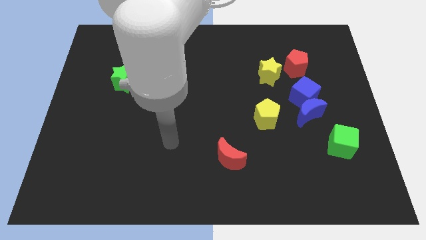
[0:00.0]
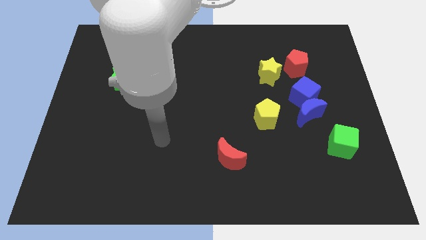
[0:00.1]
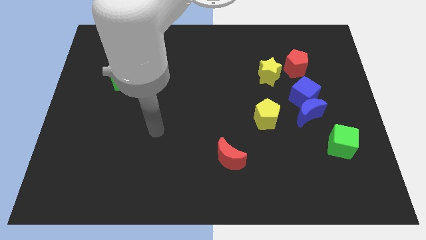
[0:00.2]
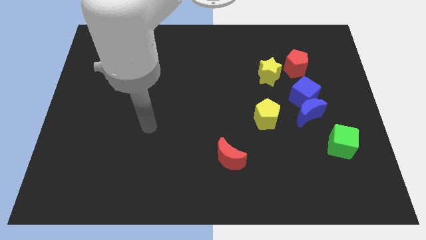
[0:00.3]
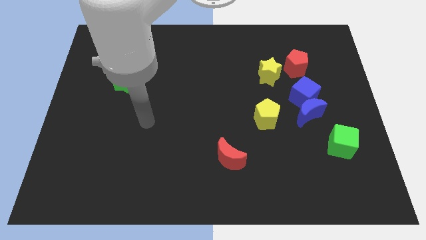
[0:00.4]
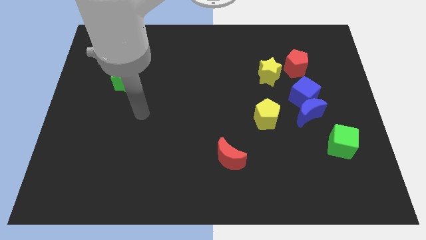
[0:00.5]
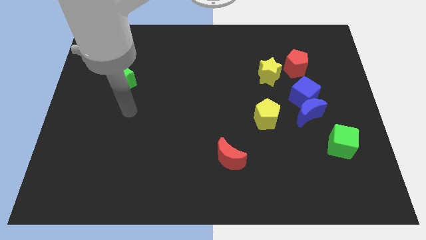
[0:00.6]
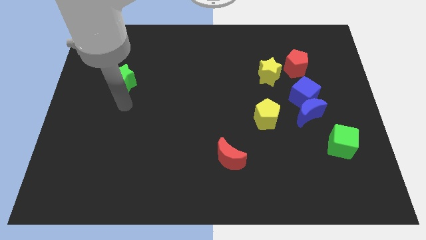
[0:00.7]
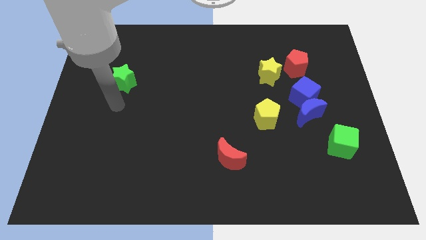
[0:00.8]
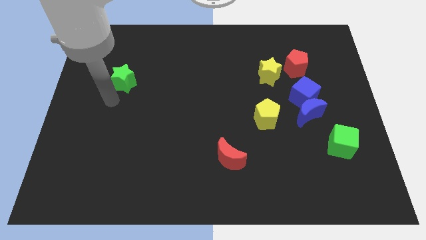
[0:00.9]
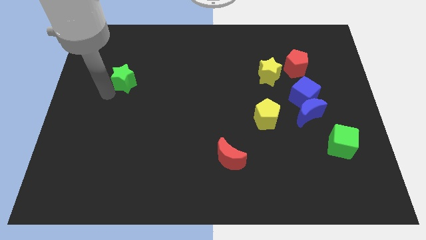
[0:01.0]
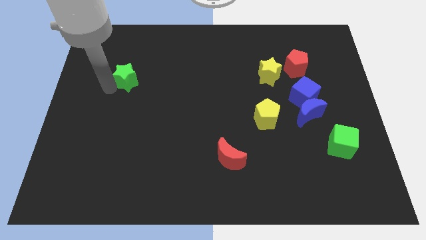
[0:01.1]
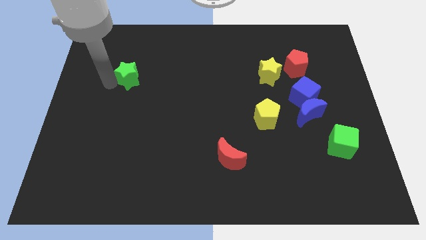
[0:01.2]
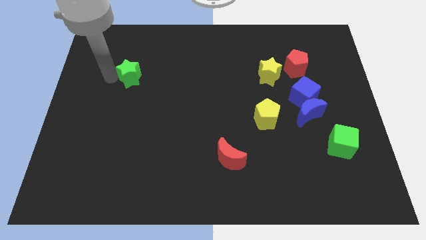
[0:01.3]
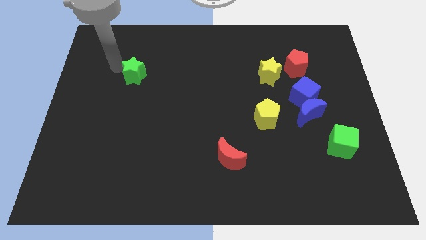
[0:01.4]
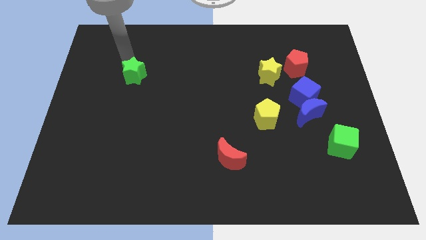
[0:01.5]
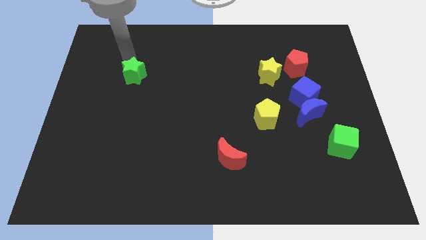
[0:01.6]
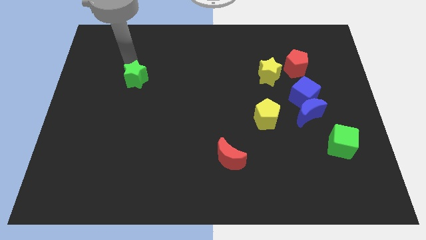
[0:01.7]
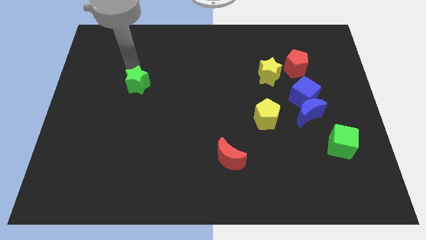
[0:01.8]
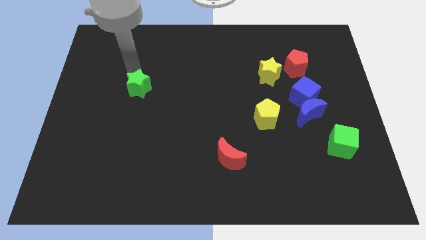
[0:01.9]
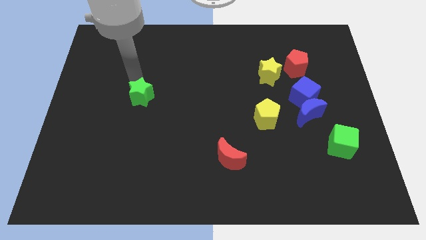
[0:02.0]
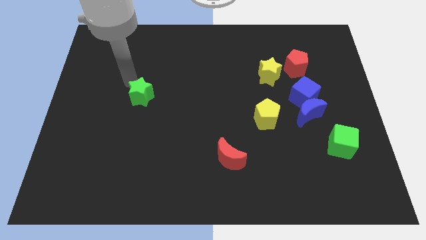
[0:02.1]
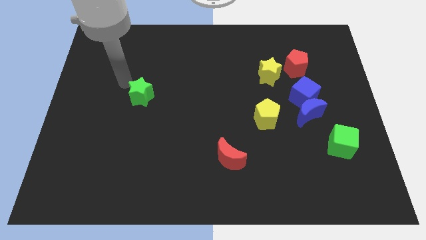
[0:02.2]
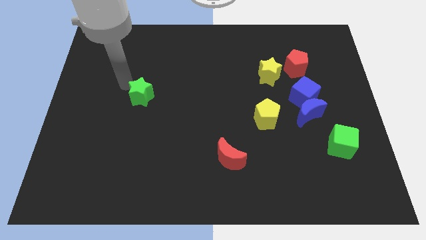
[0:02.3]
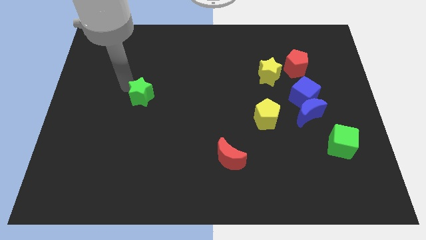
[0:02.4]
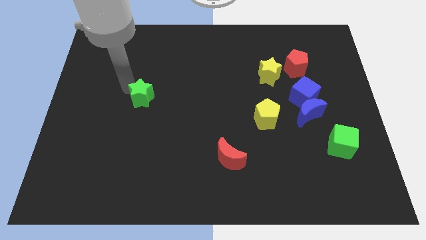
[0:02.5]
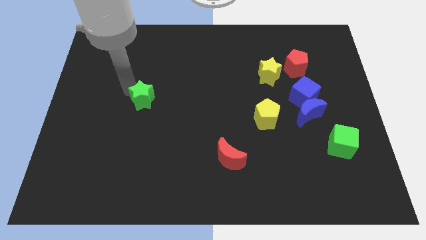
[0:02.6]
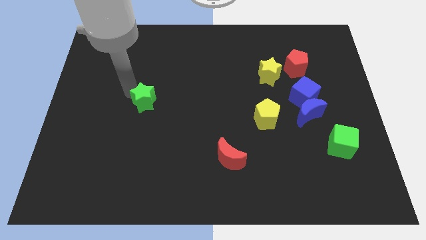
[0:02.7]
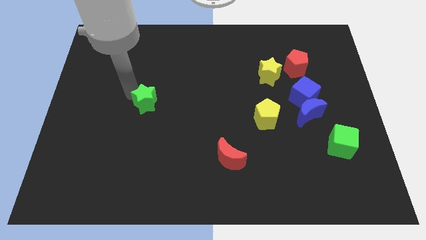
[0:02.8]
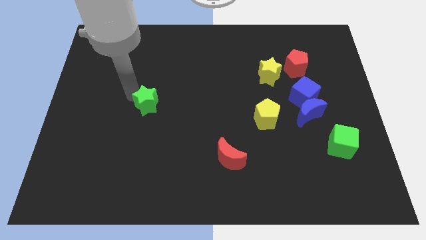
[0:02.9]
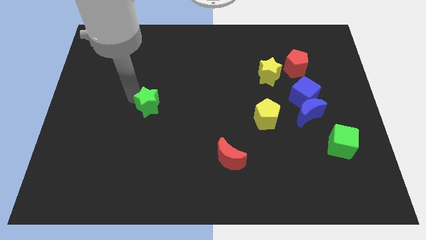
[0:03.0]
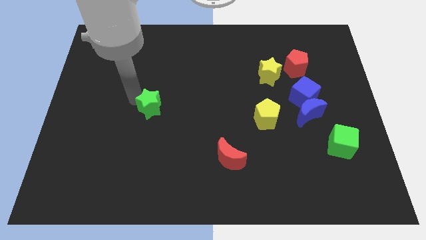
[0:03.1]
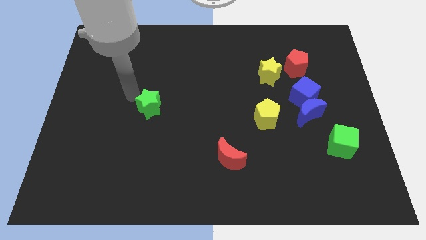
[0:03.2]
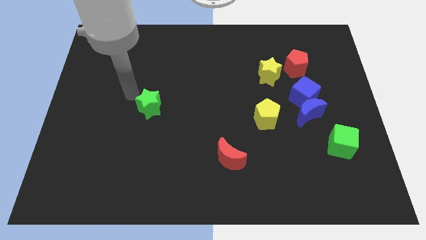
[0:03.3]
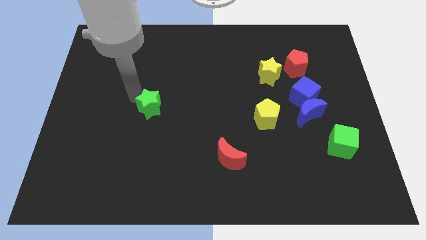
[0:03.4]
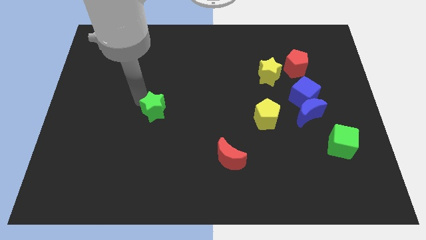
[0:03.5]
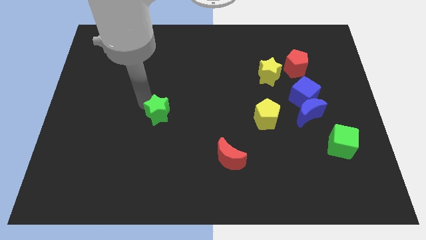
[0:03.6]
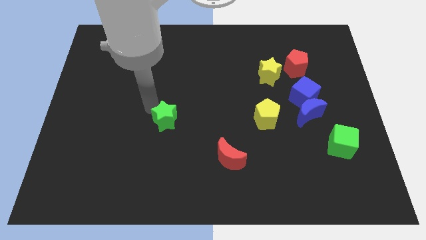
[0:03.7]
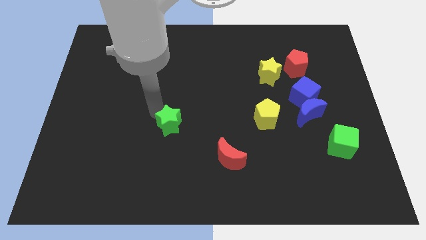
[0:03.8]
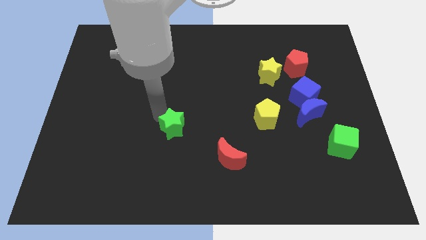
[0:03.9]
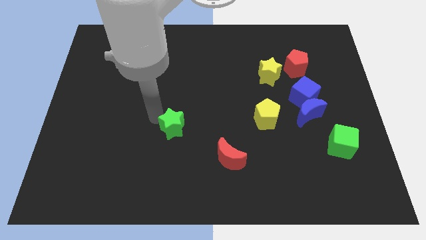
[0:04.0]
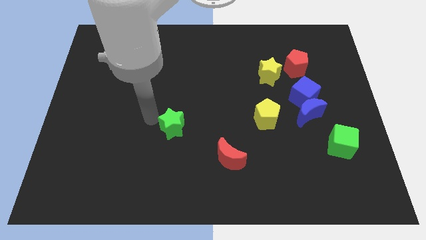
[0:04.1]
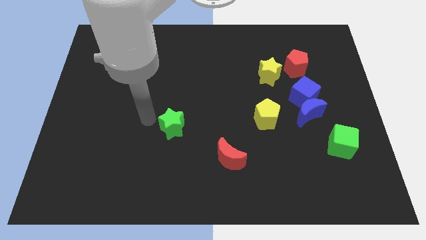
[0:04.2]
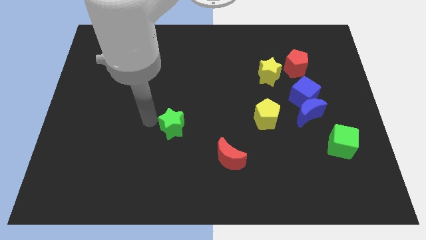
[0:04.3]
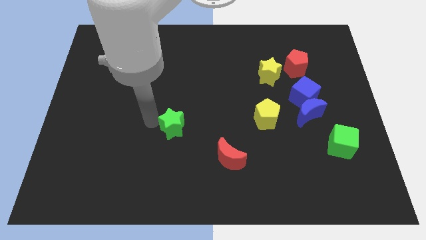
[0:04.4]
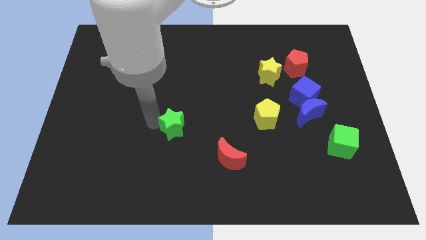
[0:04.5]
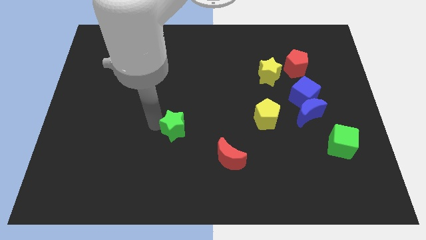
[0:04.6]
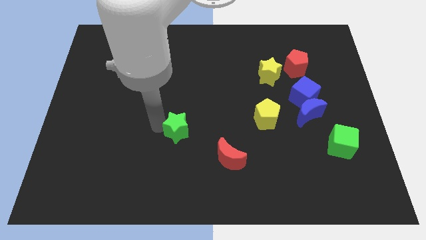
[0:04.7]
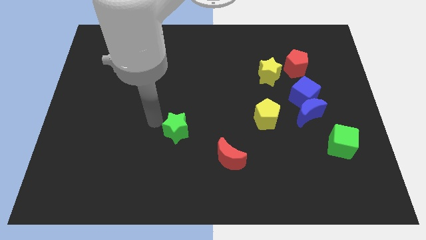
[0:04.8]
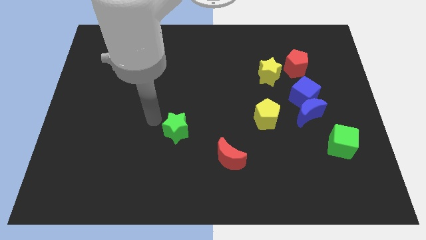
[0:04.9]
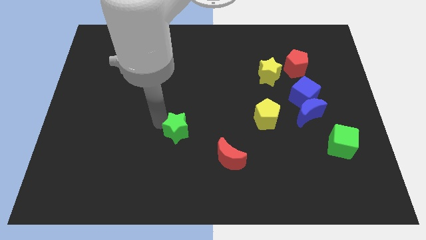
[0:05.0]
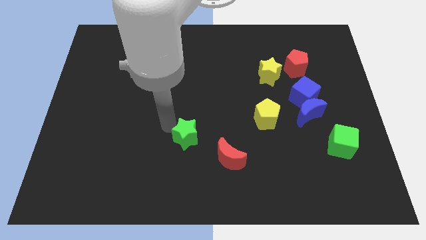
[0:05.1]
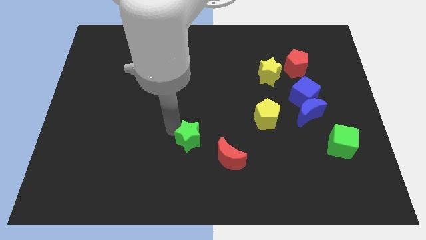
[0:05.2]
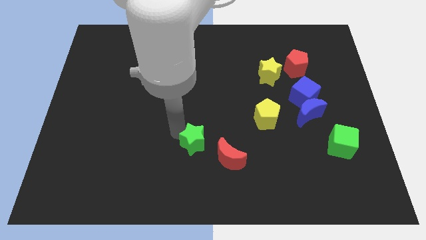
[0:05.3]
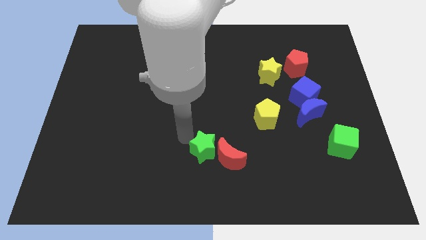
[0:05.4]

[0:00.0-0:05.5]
move the green star towards the red moon

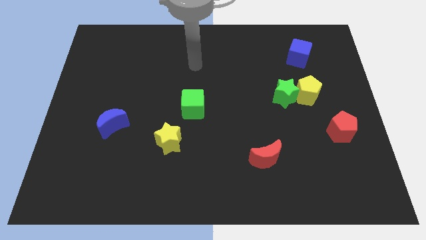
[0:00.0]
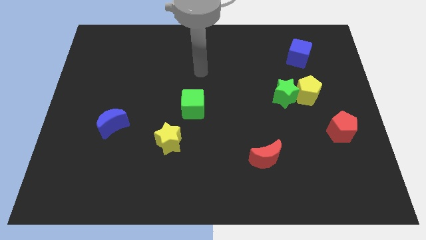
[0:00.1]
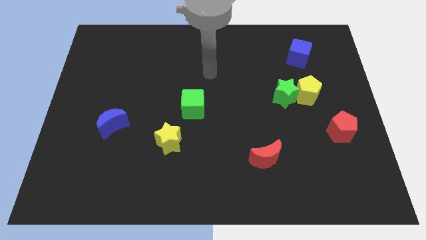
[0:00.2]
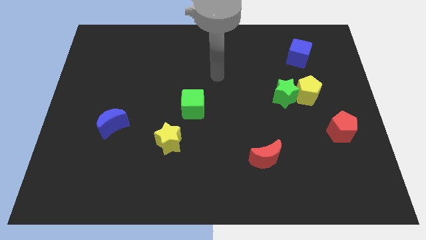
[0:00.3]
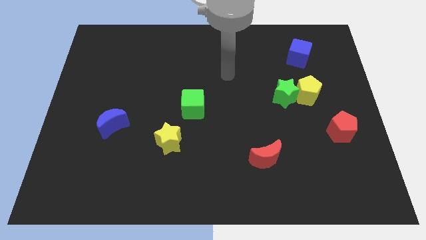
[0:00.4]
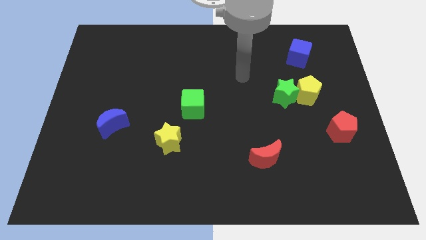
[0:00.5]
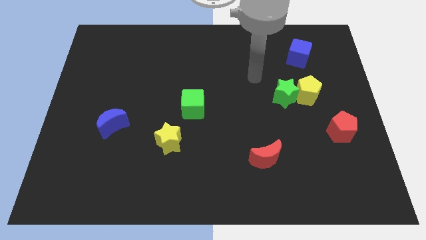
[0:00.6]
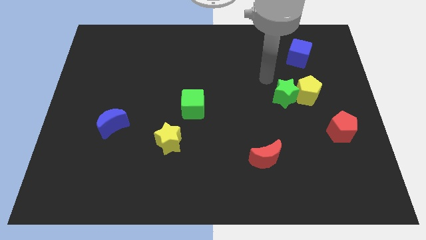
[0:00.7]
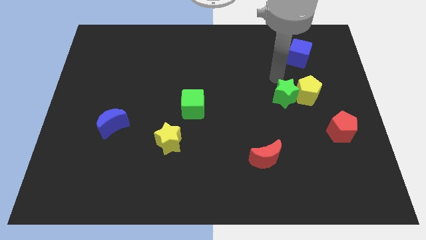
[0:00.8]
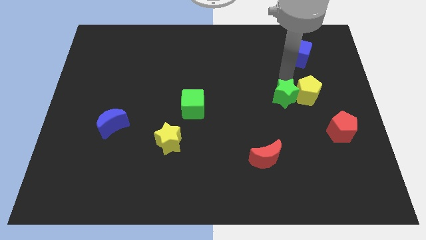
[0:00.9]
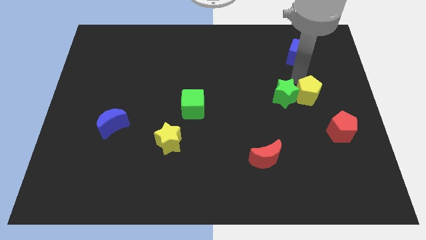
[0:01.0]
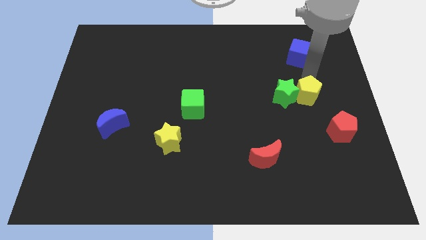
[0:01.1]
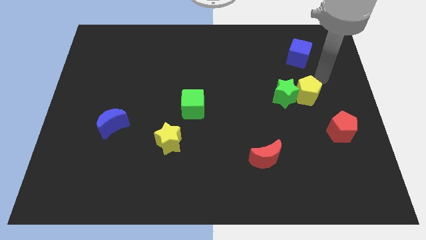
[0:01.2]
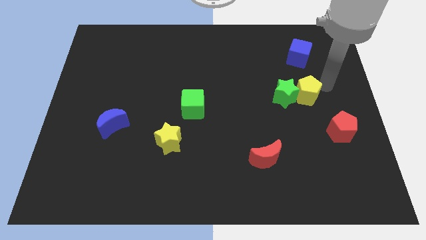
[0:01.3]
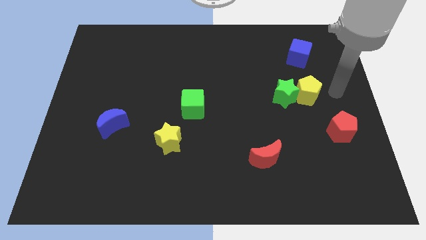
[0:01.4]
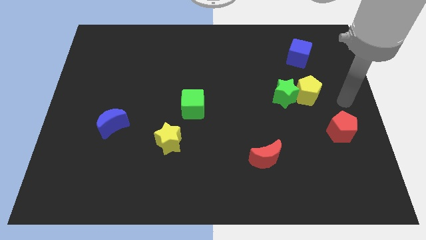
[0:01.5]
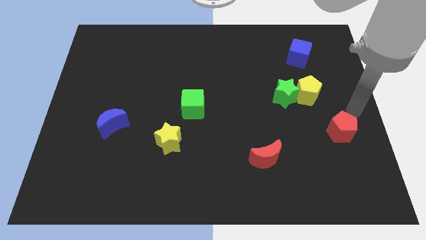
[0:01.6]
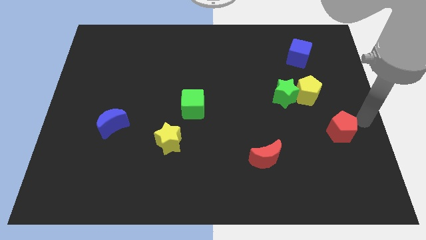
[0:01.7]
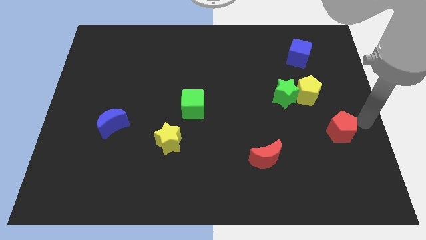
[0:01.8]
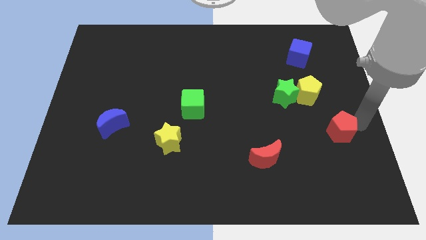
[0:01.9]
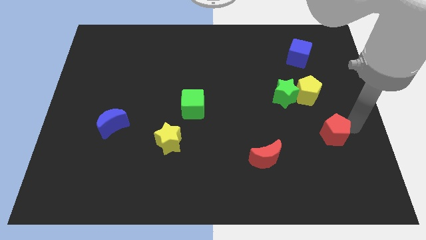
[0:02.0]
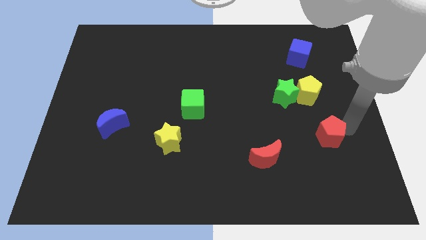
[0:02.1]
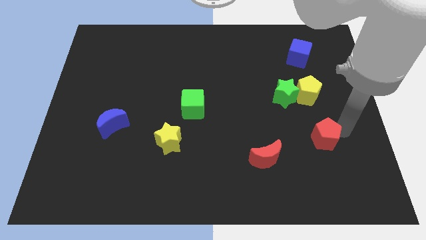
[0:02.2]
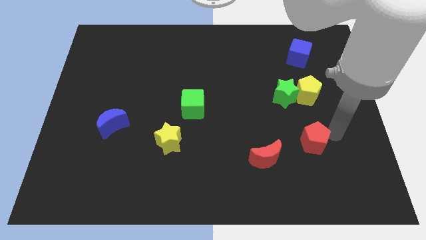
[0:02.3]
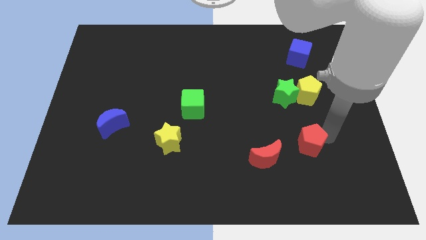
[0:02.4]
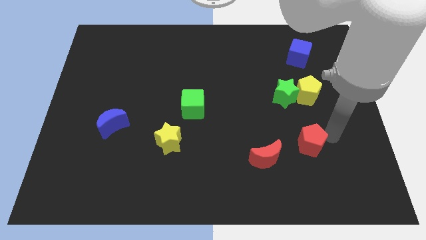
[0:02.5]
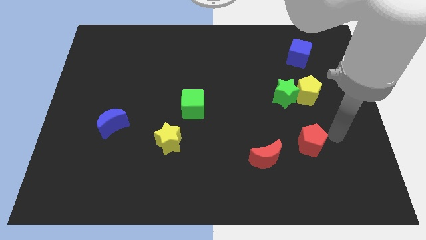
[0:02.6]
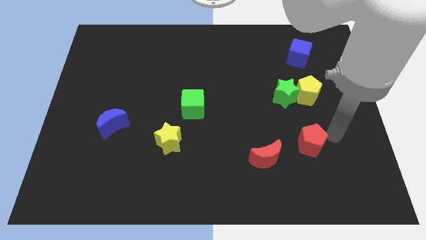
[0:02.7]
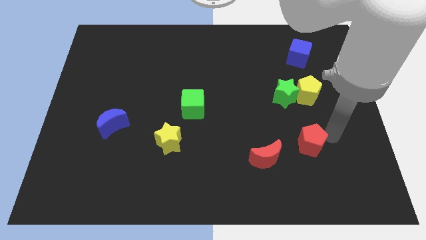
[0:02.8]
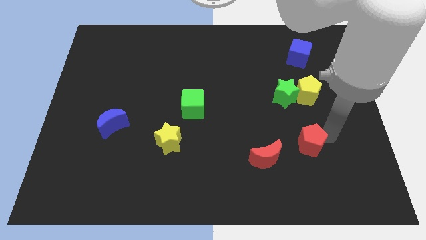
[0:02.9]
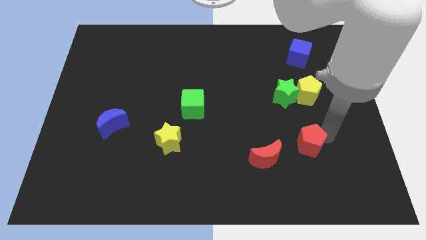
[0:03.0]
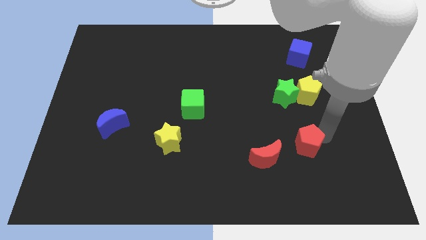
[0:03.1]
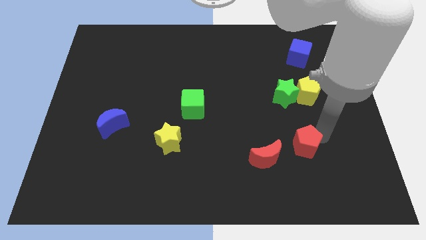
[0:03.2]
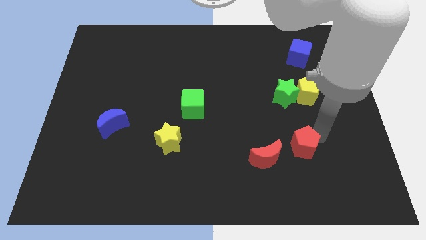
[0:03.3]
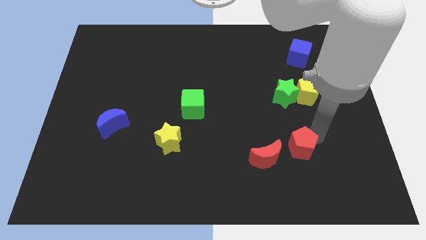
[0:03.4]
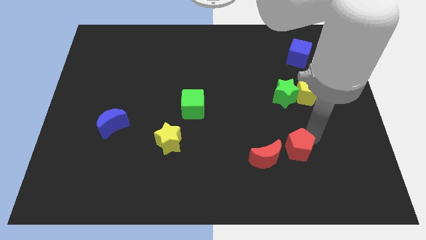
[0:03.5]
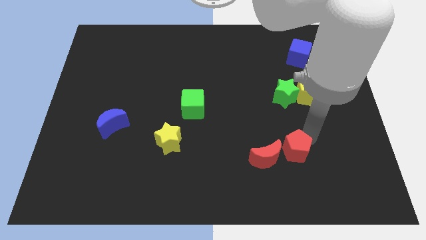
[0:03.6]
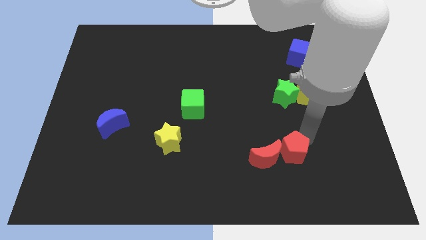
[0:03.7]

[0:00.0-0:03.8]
push the red pentagon close to the red moon
